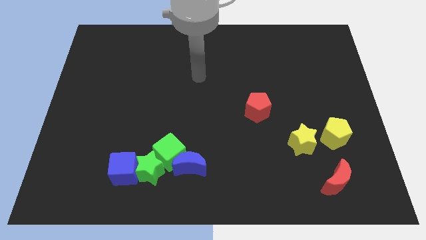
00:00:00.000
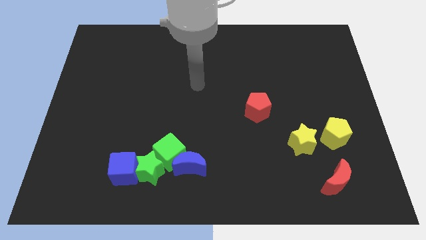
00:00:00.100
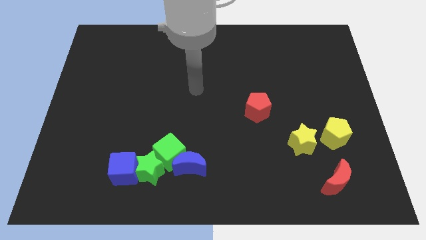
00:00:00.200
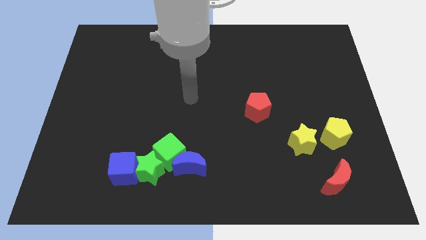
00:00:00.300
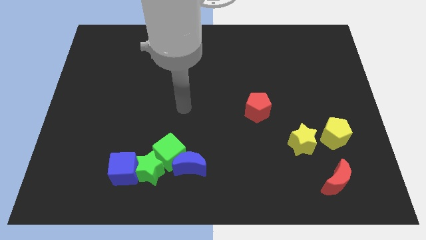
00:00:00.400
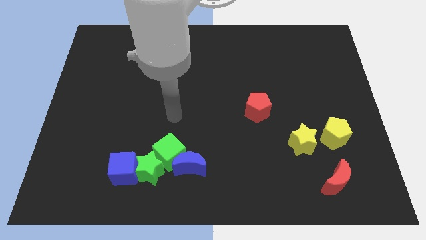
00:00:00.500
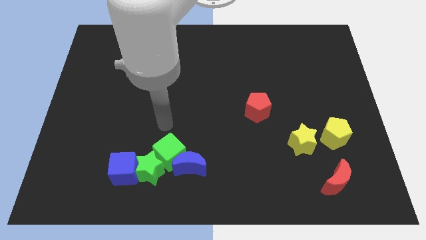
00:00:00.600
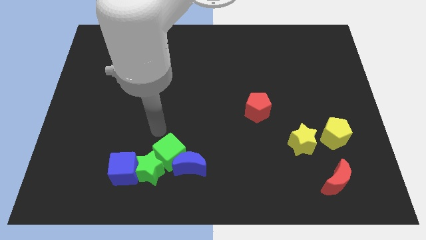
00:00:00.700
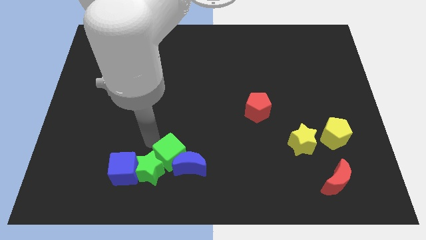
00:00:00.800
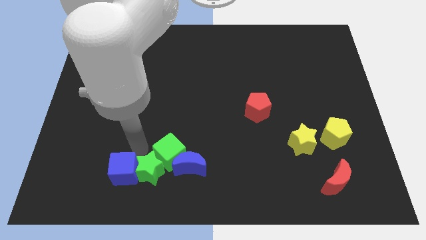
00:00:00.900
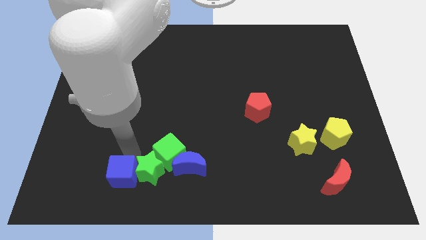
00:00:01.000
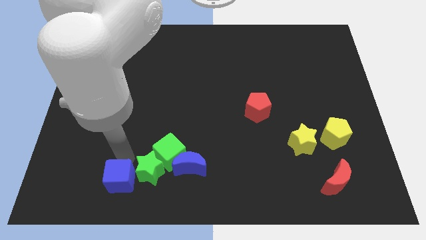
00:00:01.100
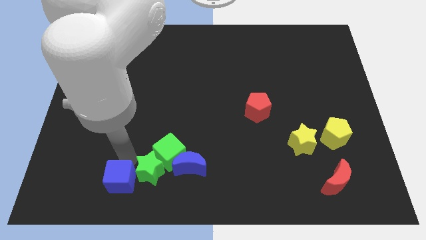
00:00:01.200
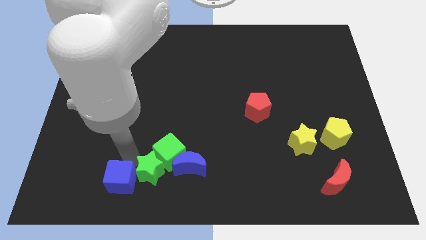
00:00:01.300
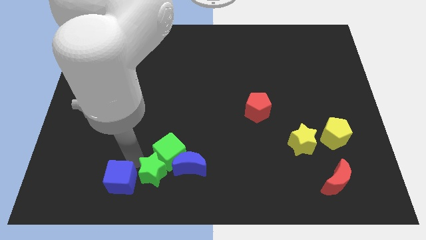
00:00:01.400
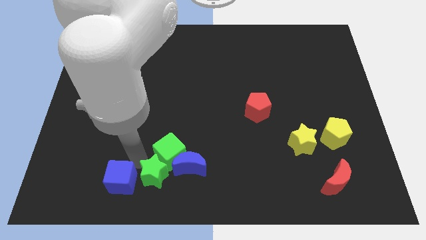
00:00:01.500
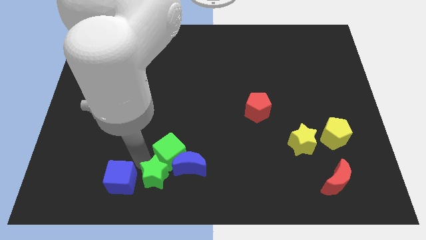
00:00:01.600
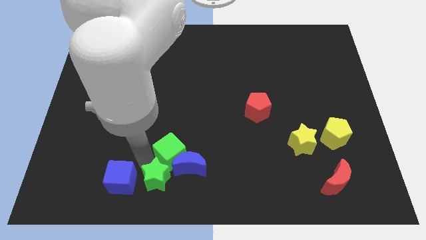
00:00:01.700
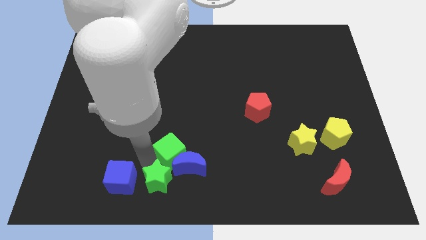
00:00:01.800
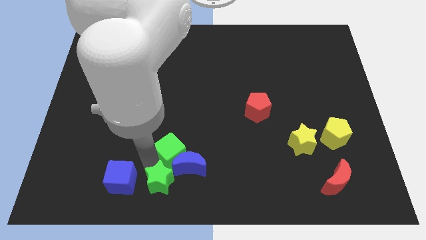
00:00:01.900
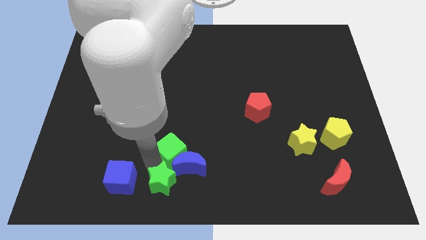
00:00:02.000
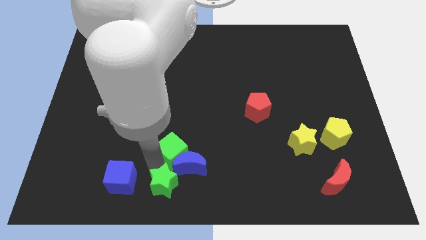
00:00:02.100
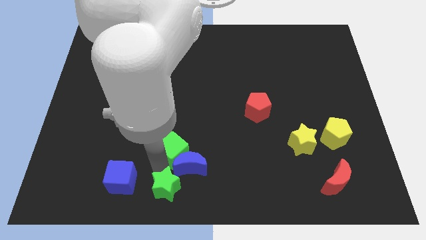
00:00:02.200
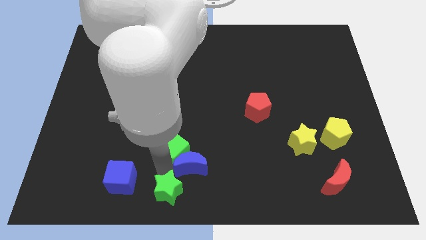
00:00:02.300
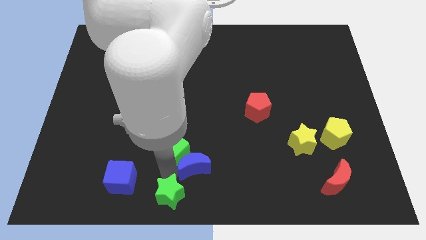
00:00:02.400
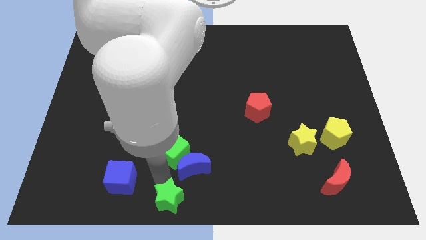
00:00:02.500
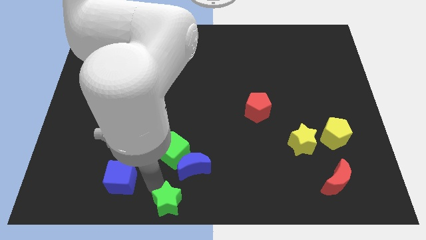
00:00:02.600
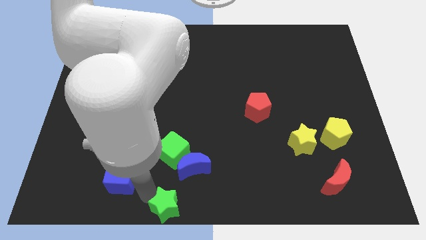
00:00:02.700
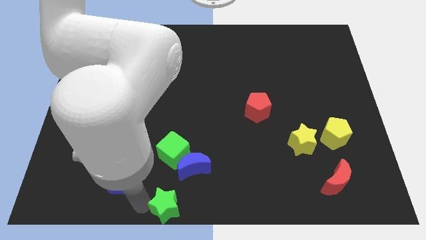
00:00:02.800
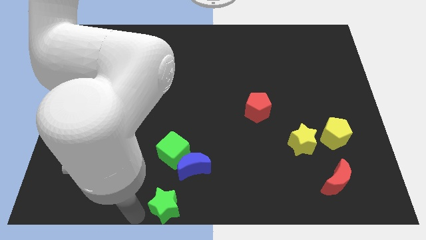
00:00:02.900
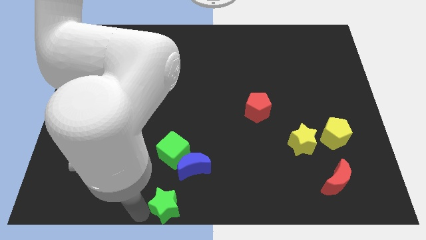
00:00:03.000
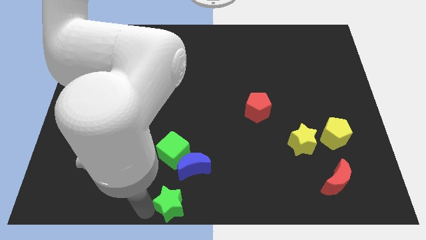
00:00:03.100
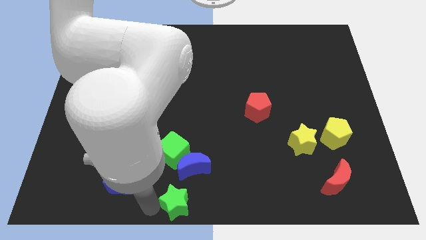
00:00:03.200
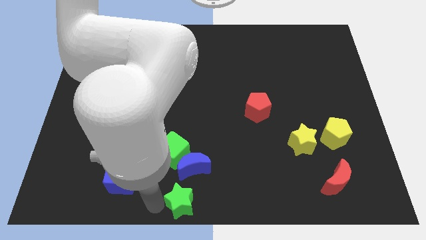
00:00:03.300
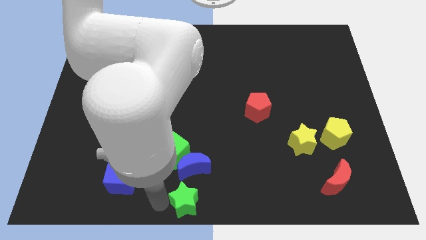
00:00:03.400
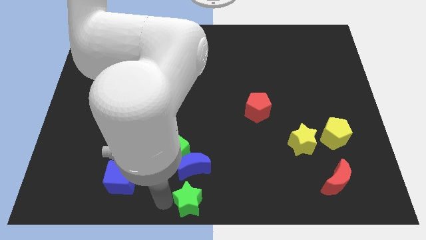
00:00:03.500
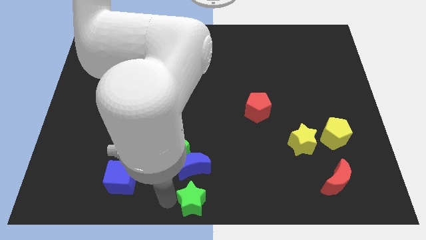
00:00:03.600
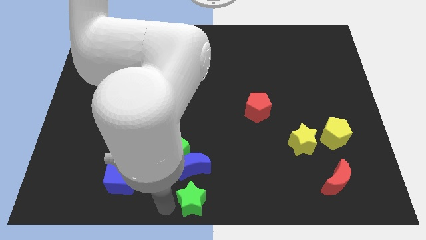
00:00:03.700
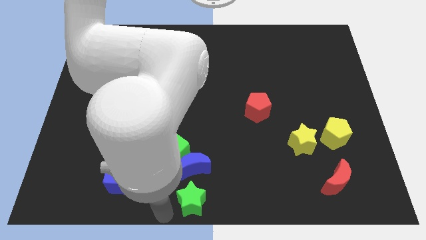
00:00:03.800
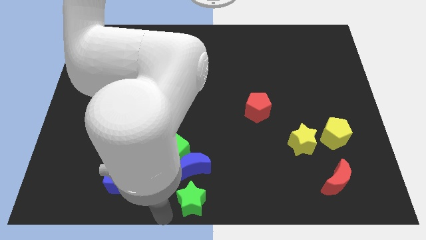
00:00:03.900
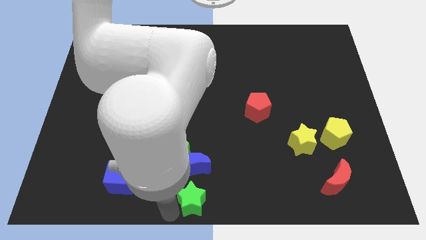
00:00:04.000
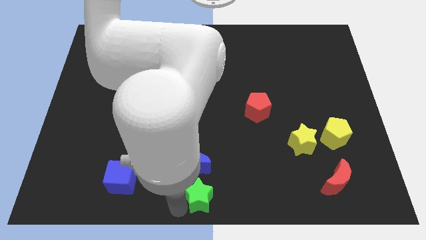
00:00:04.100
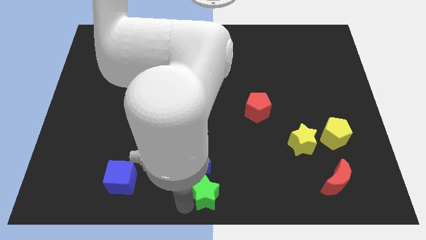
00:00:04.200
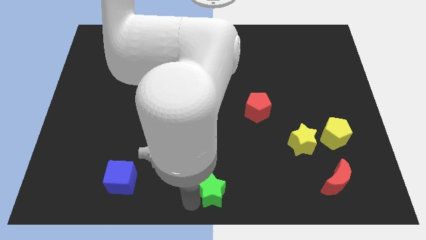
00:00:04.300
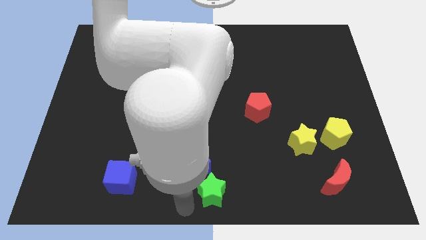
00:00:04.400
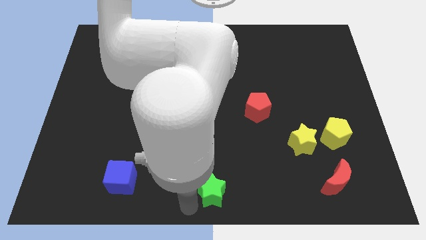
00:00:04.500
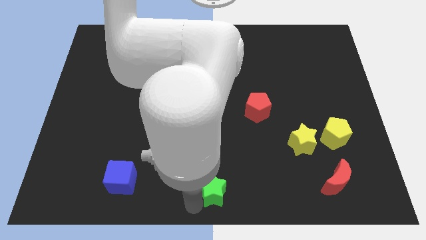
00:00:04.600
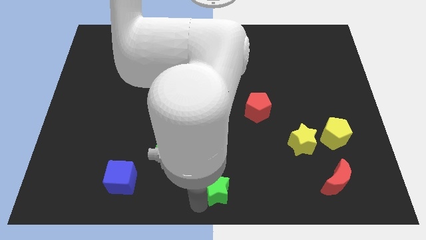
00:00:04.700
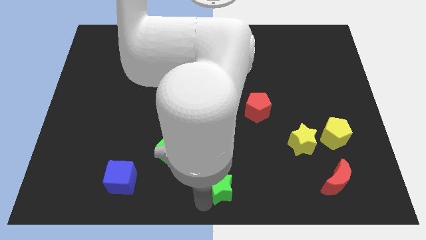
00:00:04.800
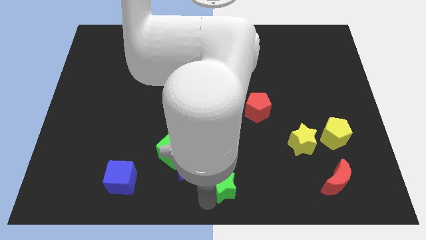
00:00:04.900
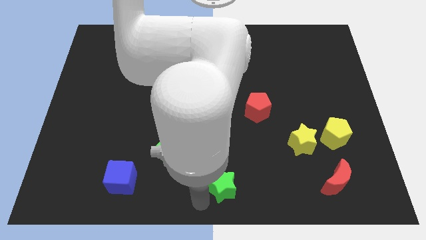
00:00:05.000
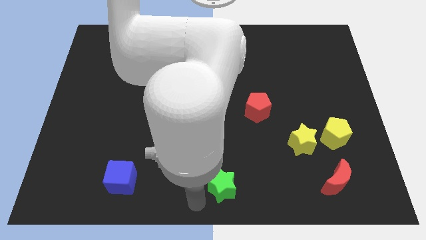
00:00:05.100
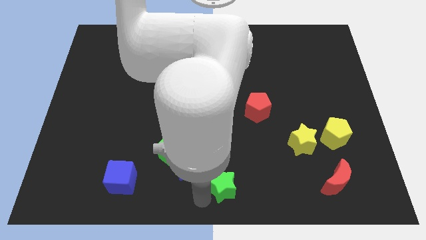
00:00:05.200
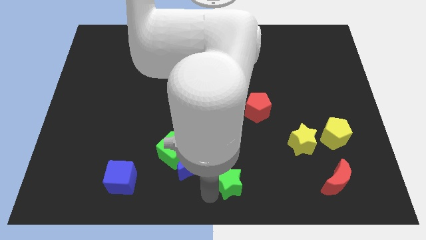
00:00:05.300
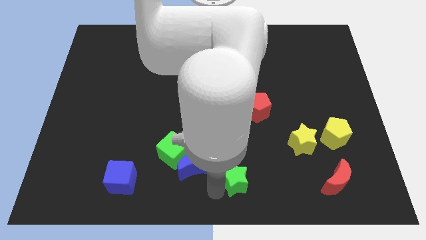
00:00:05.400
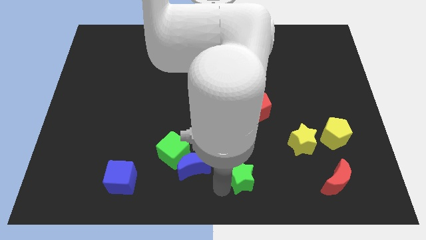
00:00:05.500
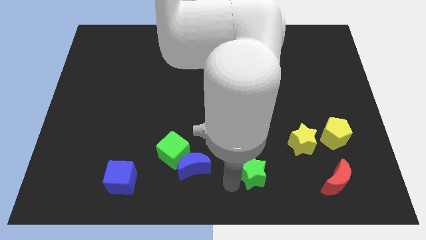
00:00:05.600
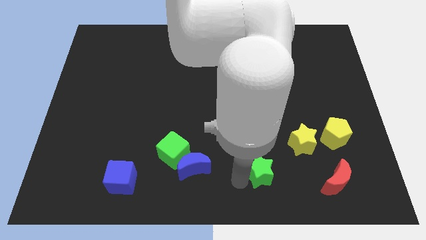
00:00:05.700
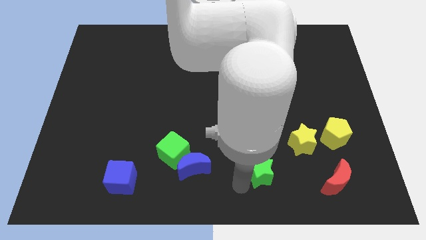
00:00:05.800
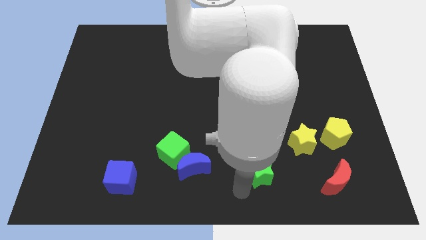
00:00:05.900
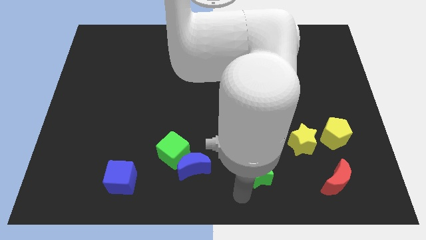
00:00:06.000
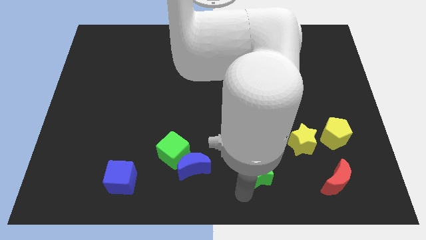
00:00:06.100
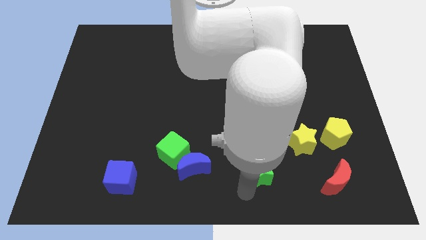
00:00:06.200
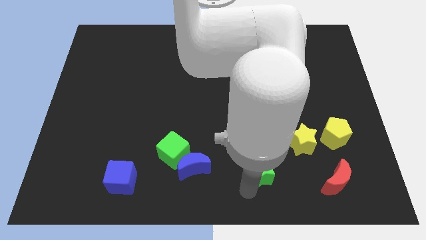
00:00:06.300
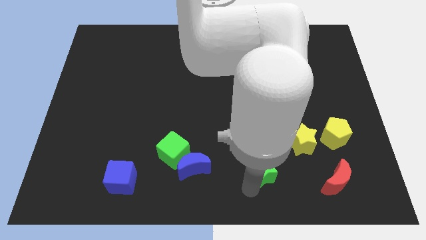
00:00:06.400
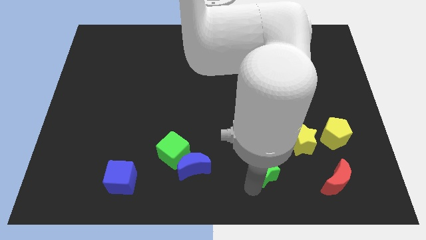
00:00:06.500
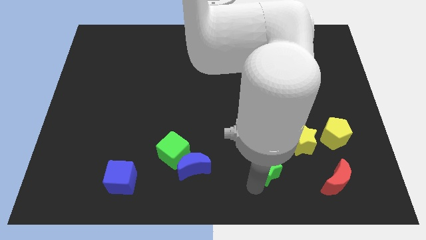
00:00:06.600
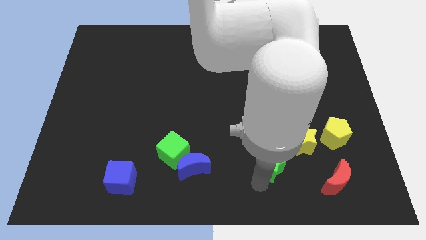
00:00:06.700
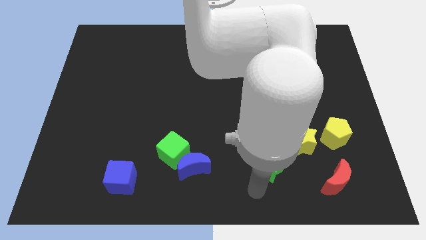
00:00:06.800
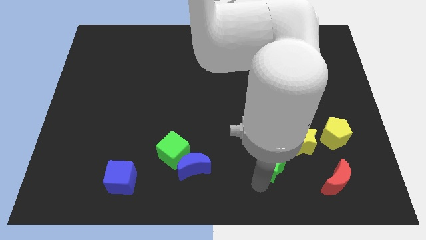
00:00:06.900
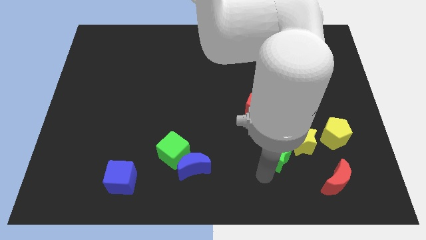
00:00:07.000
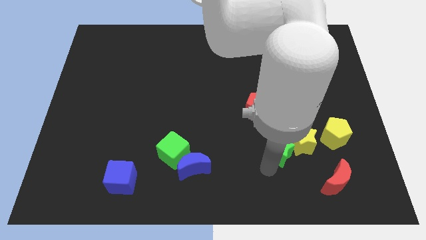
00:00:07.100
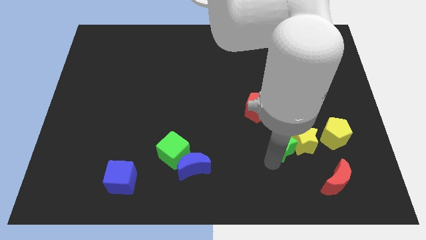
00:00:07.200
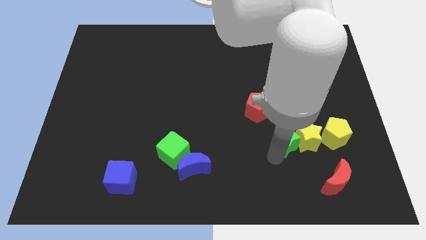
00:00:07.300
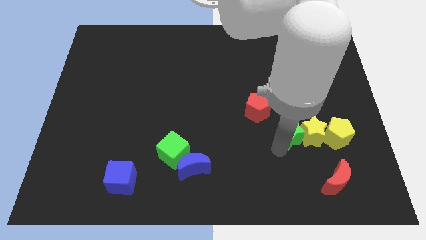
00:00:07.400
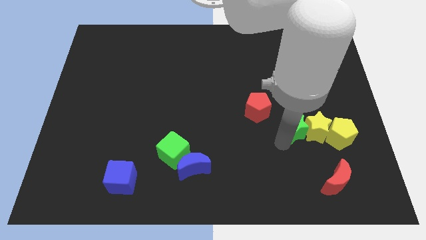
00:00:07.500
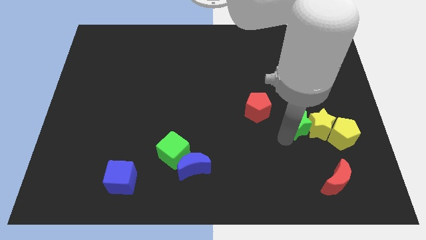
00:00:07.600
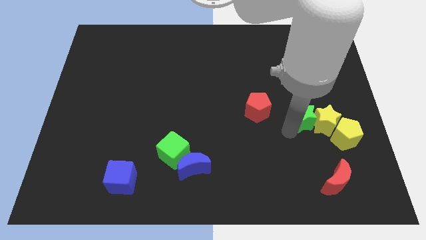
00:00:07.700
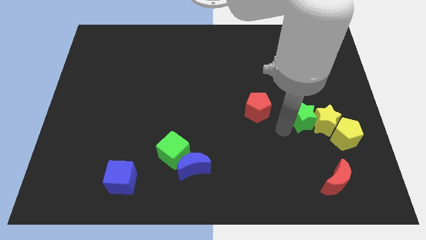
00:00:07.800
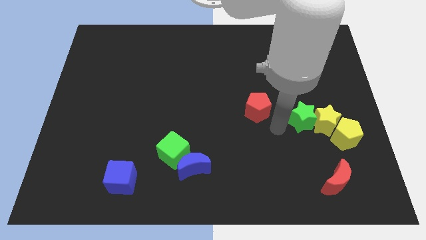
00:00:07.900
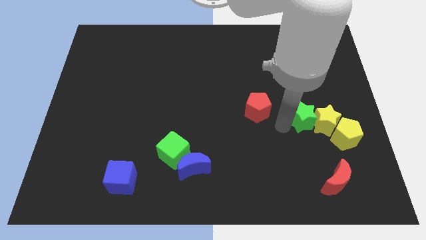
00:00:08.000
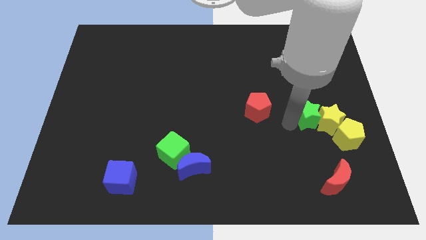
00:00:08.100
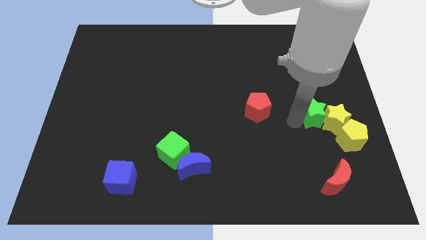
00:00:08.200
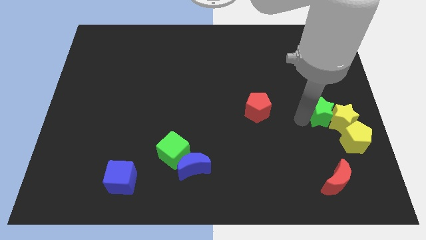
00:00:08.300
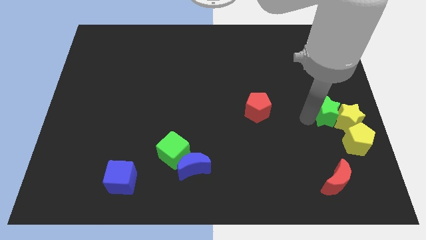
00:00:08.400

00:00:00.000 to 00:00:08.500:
put the green star to the right side
